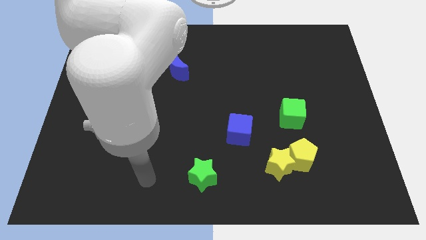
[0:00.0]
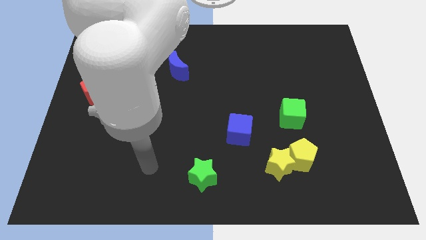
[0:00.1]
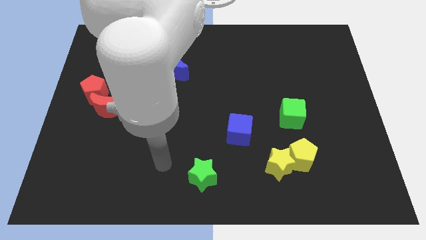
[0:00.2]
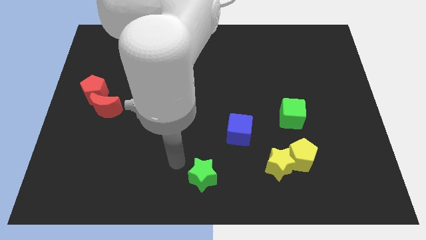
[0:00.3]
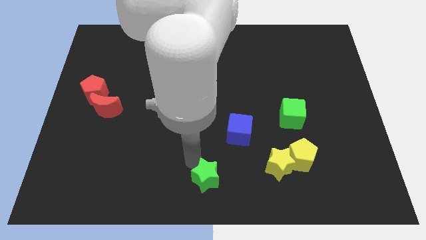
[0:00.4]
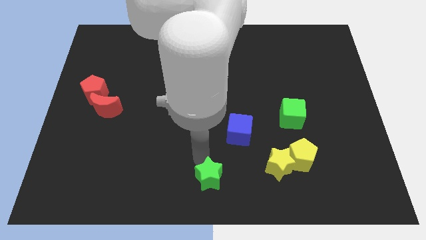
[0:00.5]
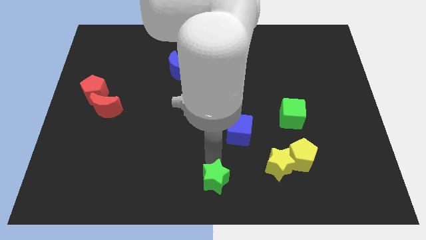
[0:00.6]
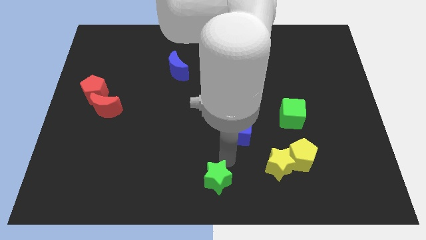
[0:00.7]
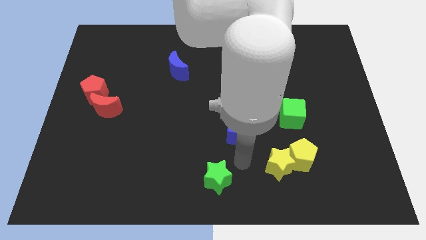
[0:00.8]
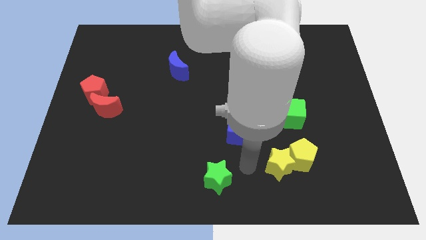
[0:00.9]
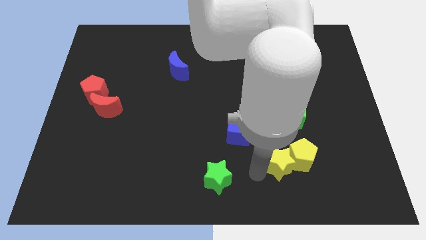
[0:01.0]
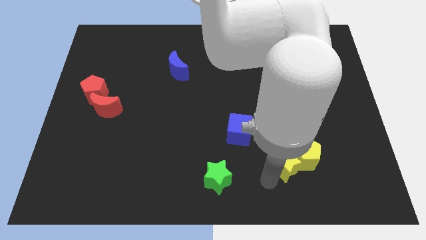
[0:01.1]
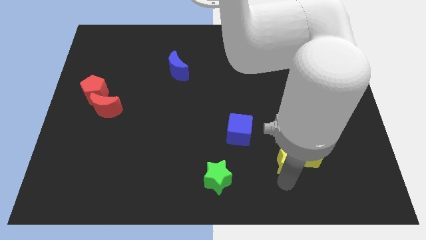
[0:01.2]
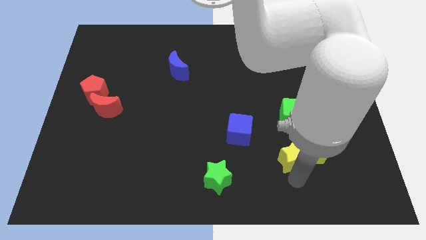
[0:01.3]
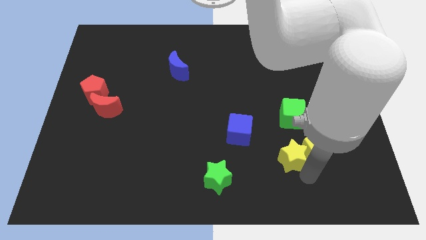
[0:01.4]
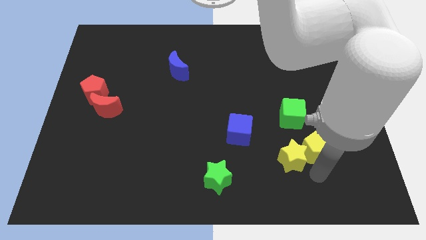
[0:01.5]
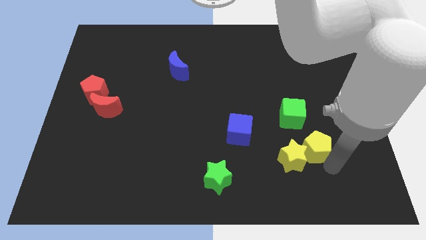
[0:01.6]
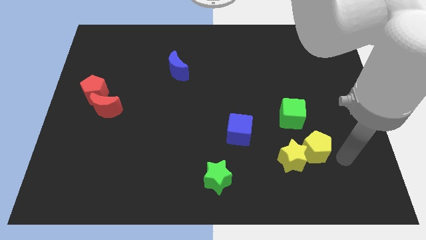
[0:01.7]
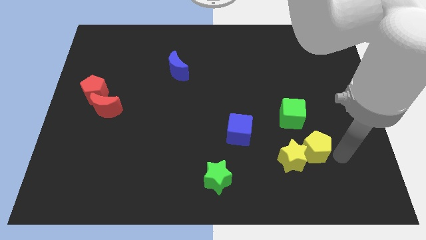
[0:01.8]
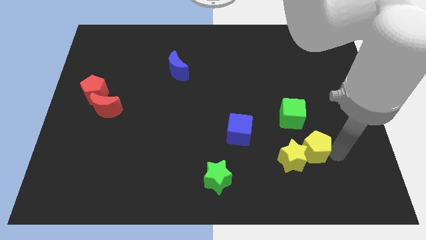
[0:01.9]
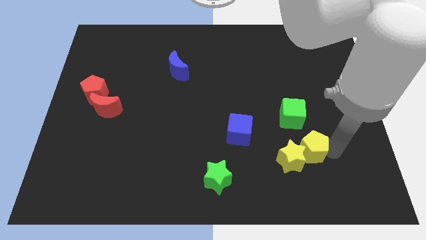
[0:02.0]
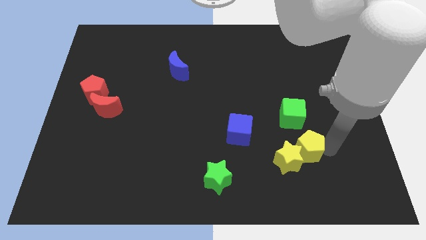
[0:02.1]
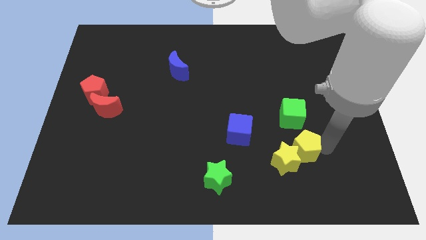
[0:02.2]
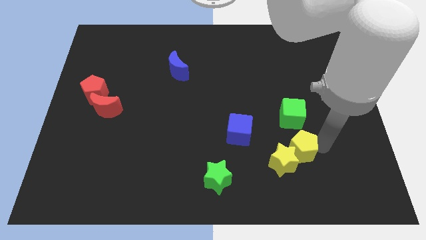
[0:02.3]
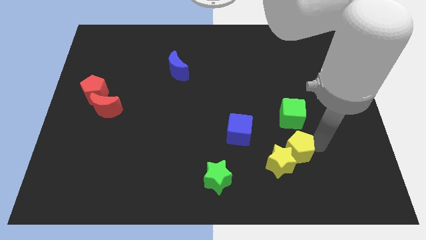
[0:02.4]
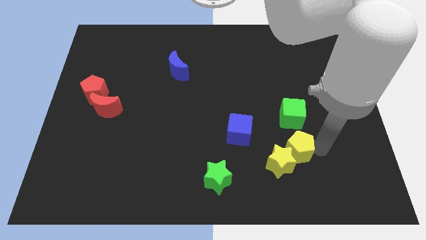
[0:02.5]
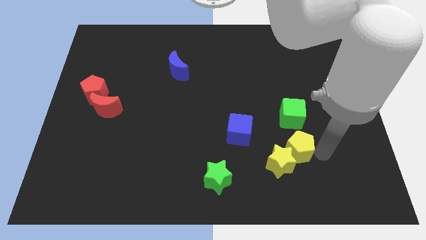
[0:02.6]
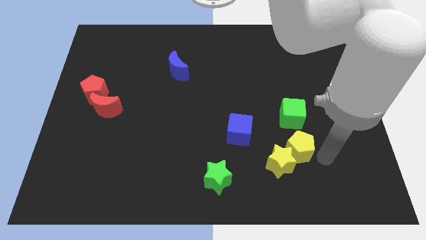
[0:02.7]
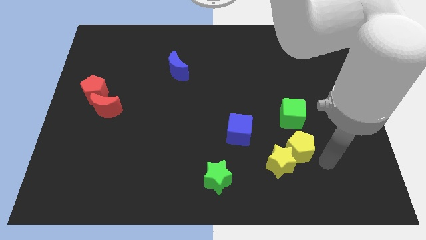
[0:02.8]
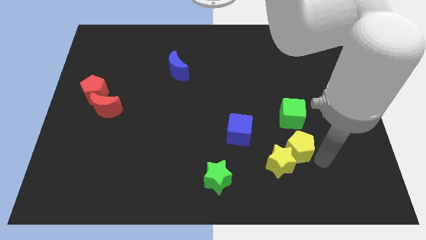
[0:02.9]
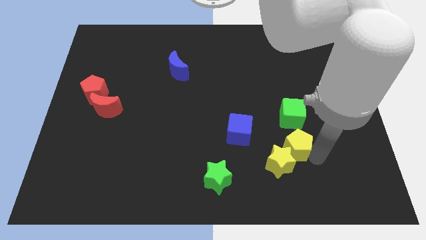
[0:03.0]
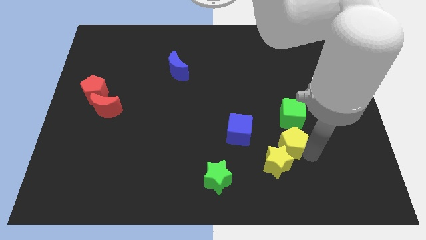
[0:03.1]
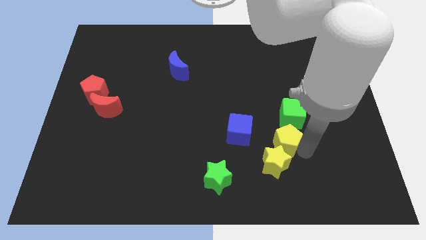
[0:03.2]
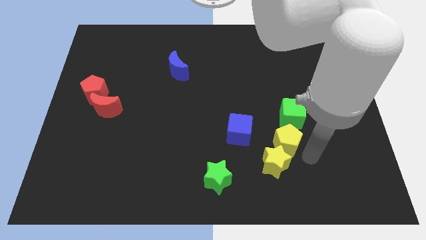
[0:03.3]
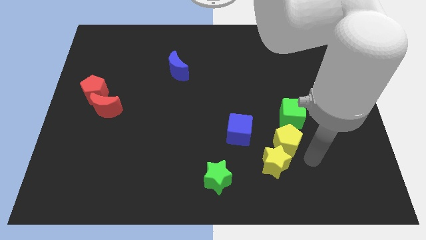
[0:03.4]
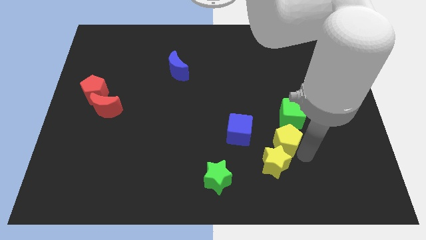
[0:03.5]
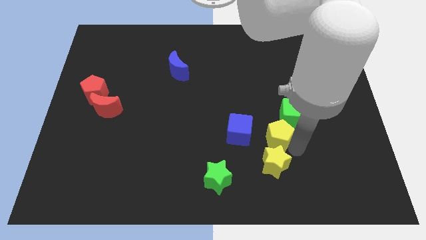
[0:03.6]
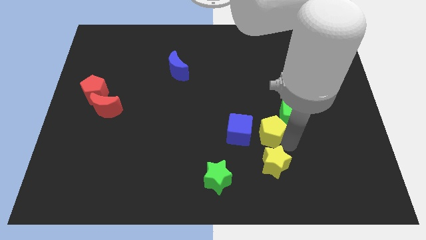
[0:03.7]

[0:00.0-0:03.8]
slightly slide the yellow pentagon up and to the left diagonally

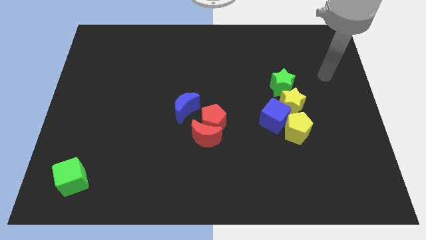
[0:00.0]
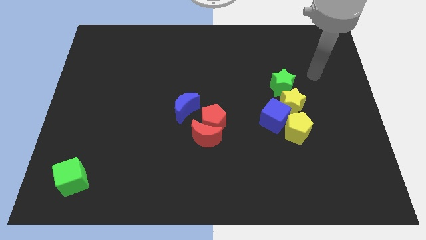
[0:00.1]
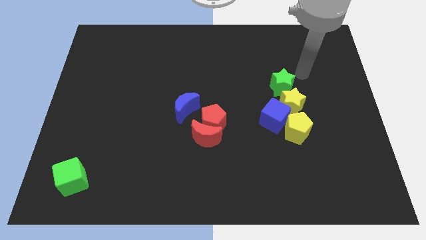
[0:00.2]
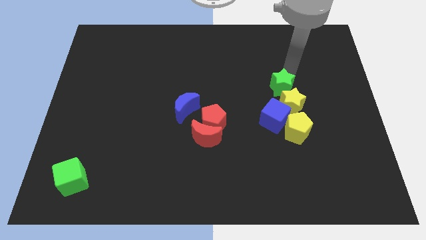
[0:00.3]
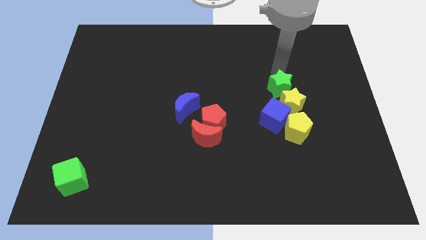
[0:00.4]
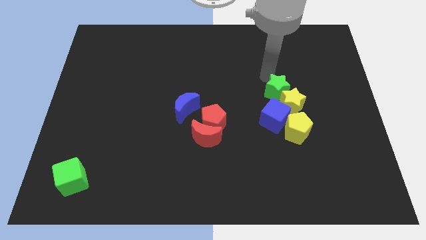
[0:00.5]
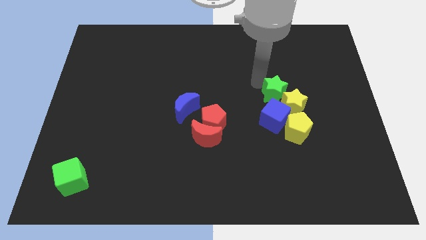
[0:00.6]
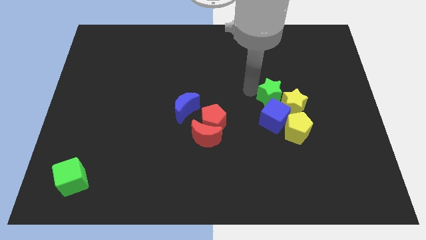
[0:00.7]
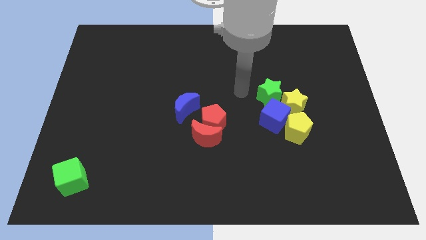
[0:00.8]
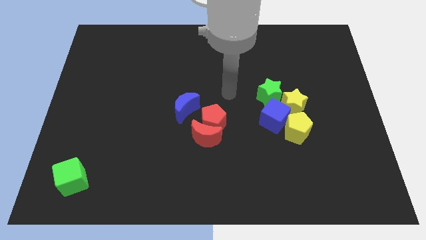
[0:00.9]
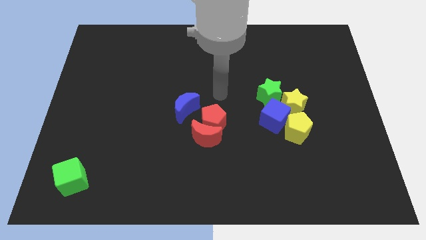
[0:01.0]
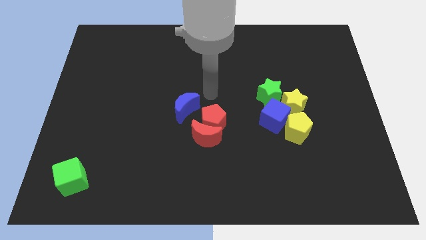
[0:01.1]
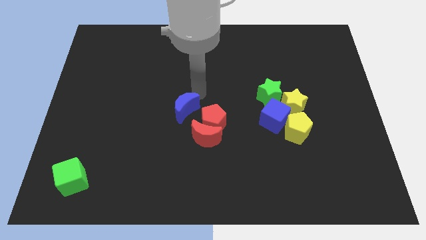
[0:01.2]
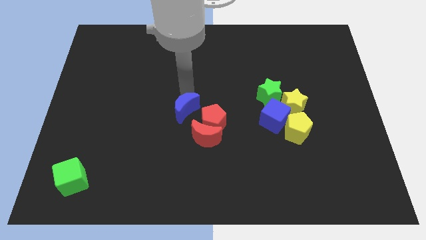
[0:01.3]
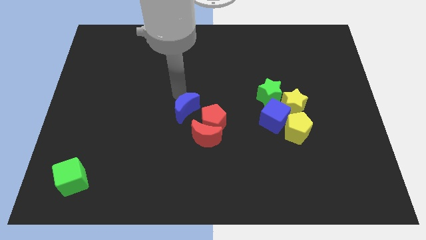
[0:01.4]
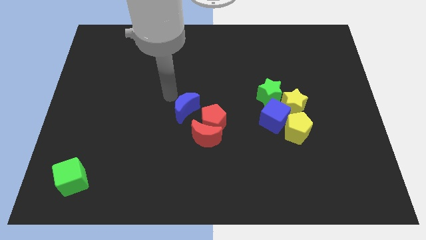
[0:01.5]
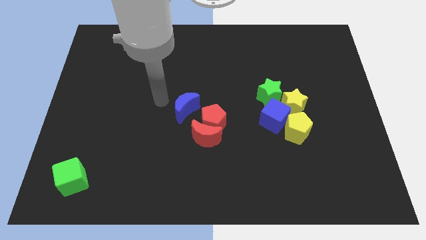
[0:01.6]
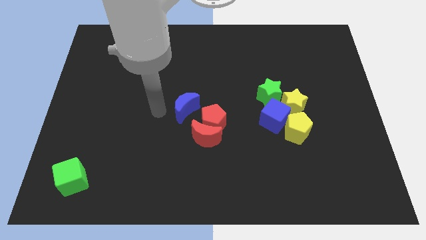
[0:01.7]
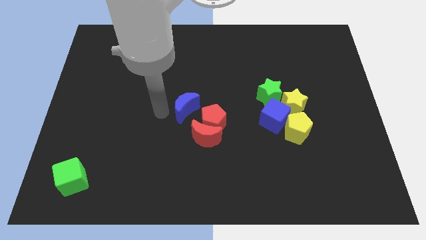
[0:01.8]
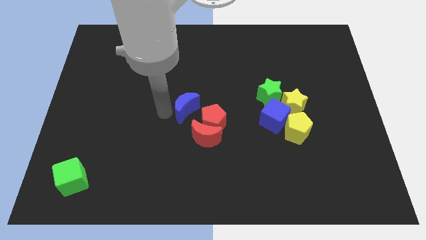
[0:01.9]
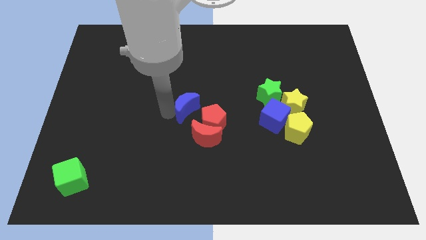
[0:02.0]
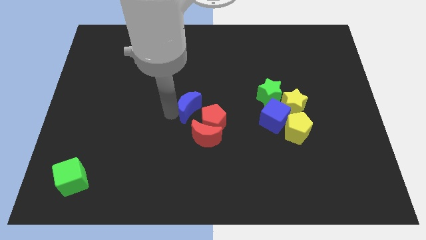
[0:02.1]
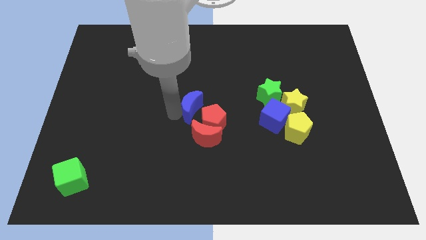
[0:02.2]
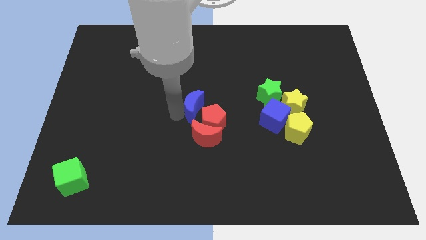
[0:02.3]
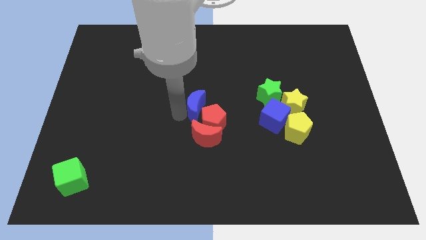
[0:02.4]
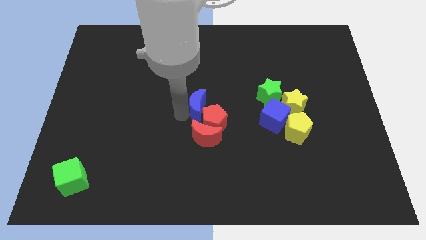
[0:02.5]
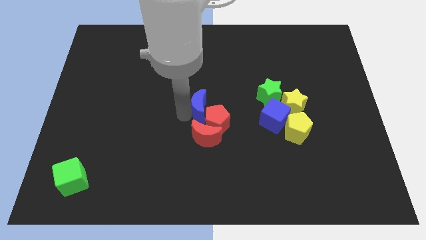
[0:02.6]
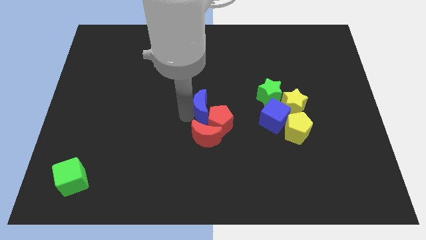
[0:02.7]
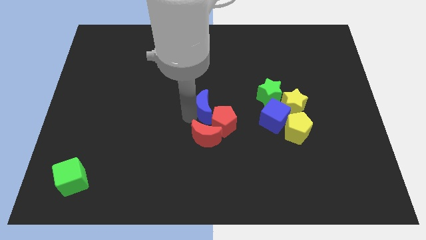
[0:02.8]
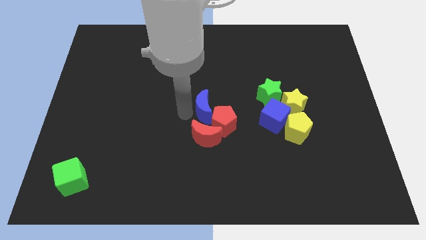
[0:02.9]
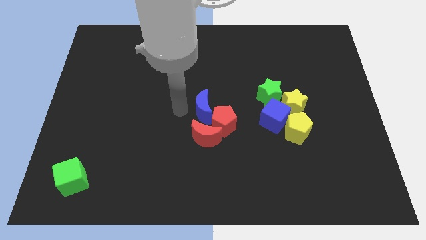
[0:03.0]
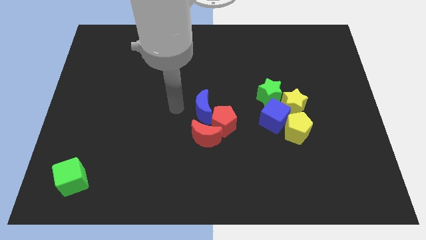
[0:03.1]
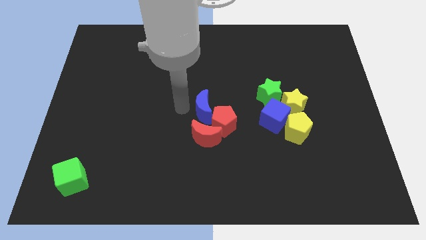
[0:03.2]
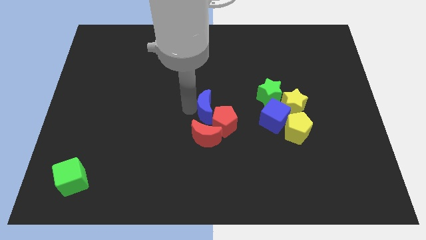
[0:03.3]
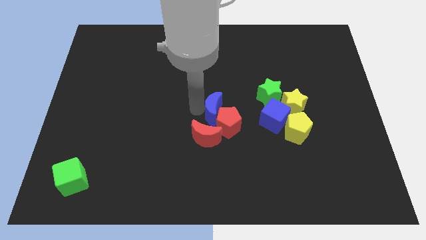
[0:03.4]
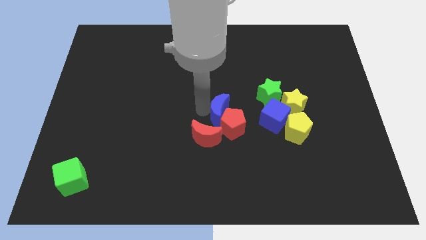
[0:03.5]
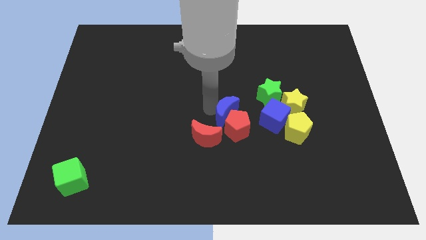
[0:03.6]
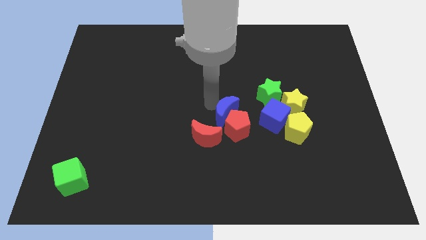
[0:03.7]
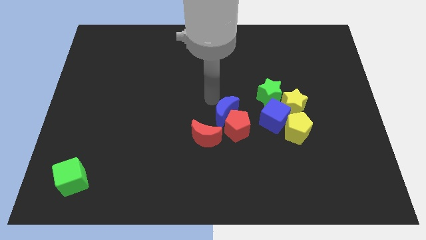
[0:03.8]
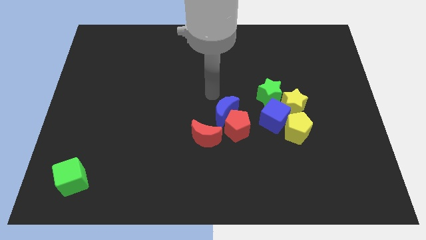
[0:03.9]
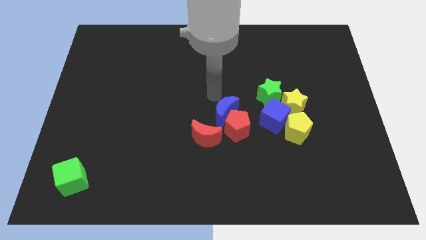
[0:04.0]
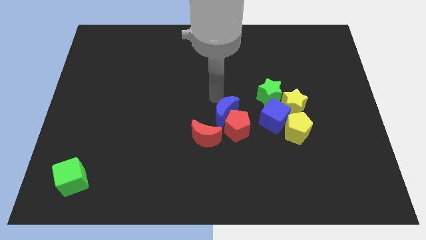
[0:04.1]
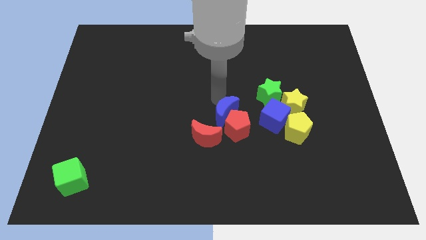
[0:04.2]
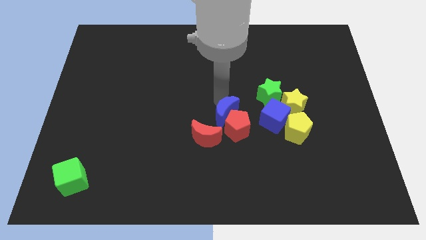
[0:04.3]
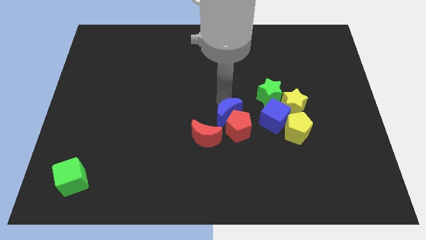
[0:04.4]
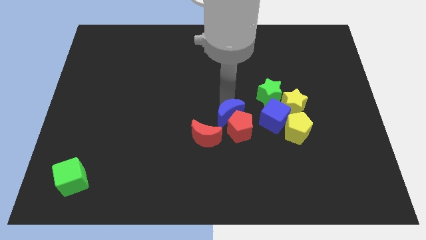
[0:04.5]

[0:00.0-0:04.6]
slide the blue moon downwards and then right slightly
